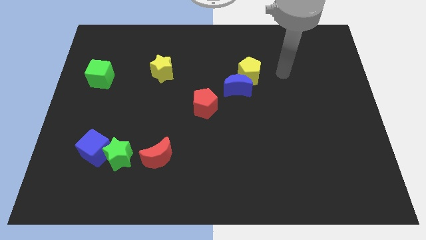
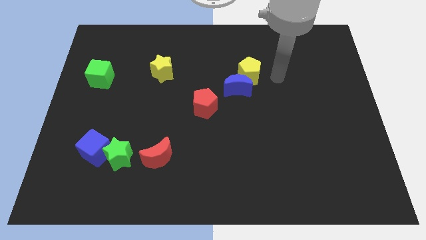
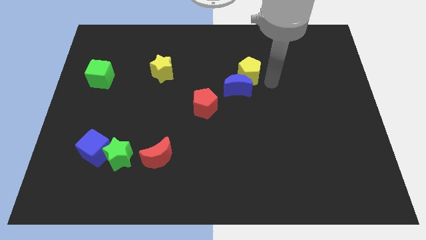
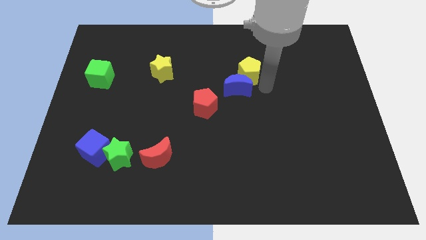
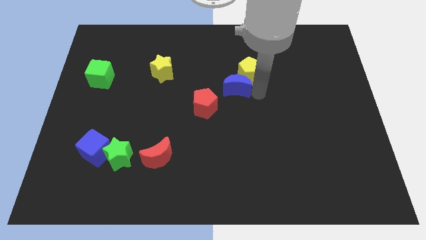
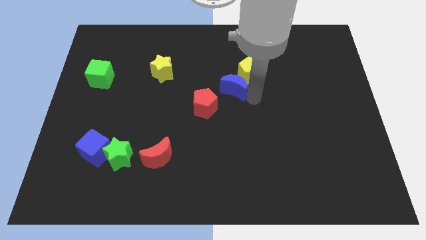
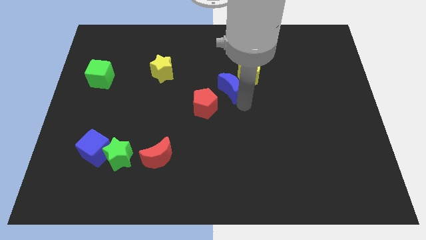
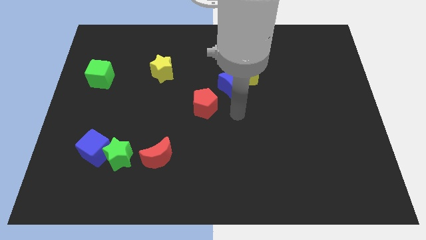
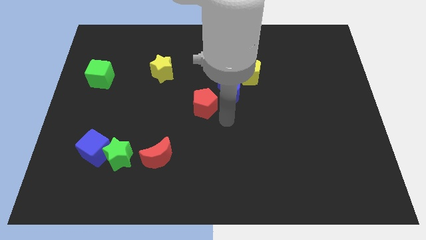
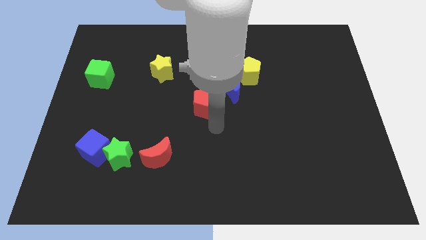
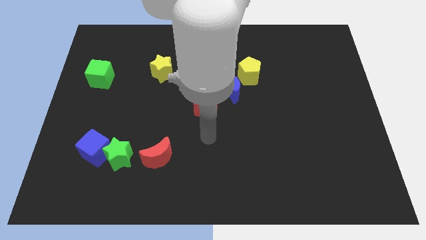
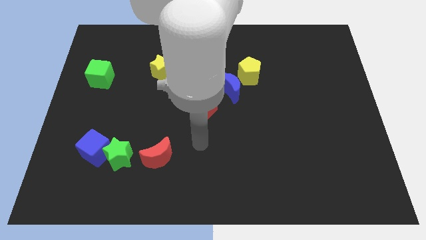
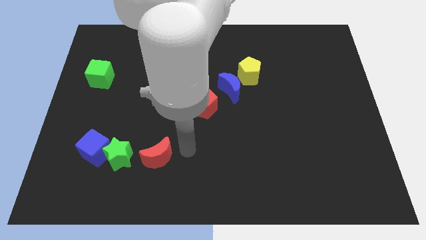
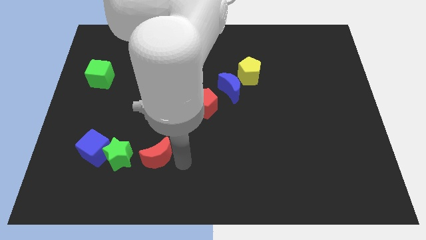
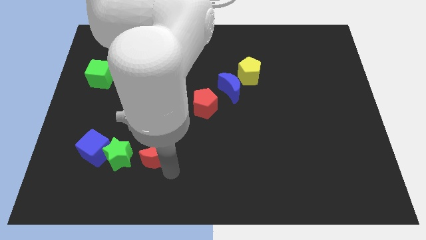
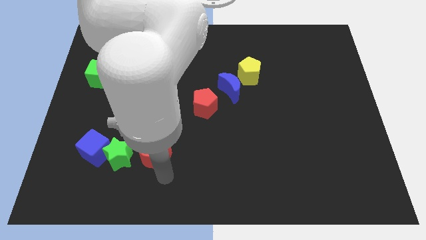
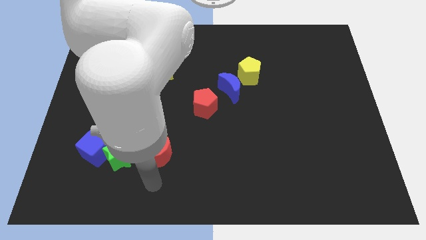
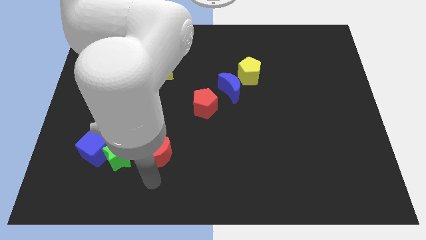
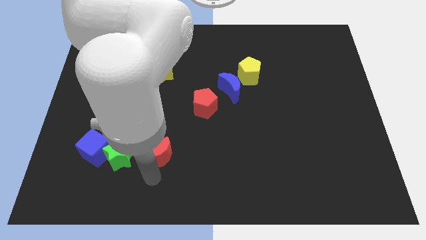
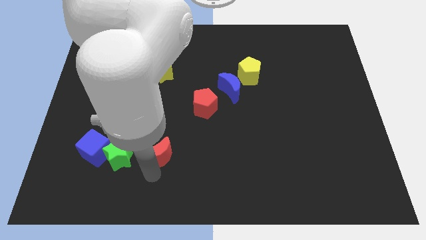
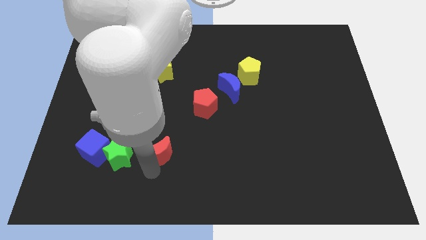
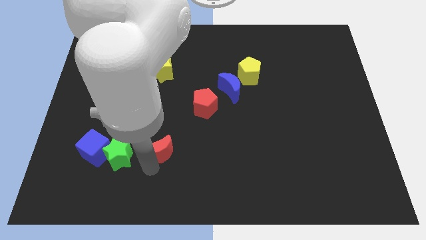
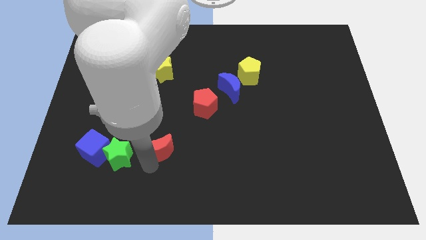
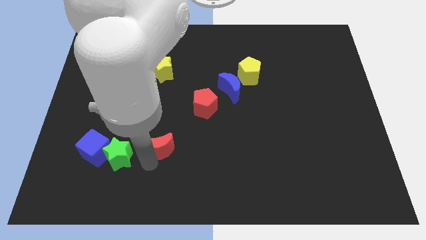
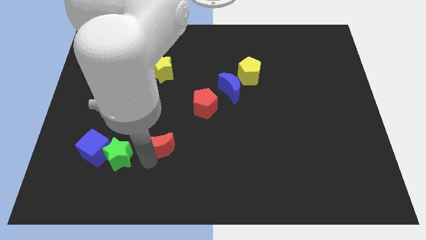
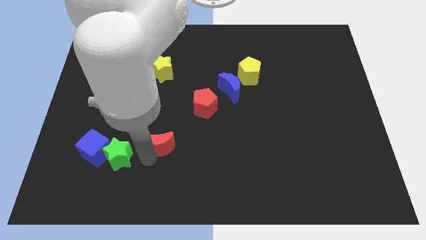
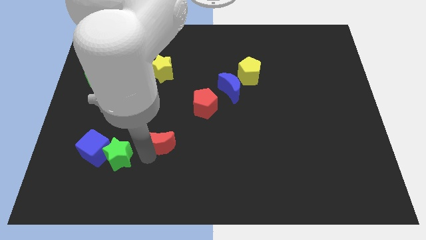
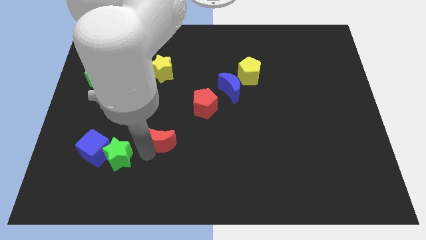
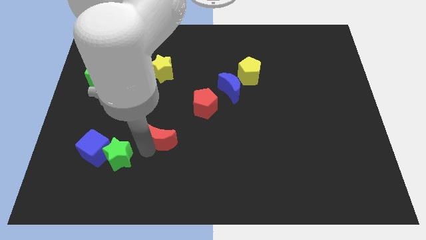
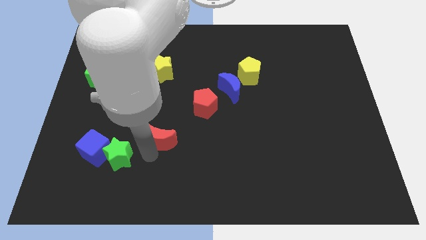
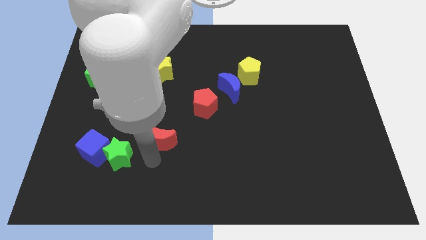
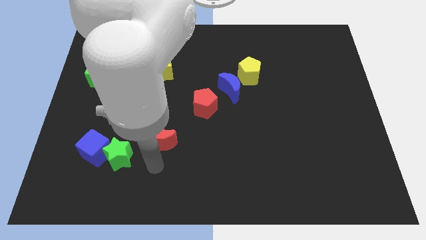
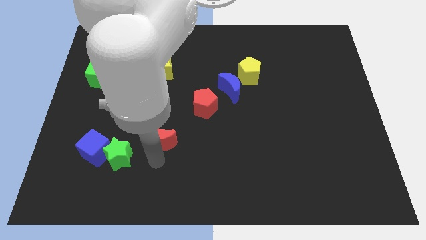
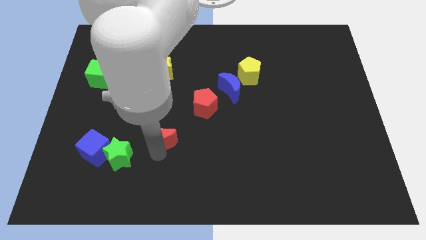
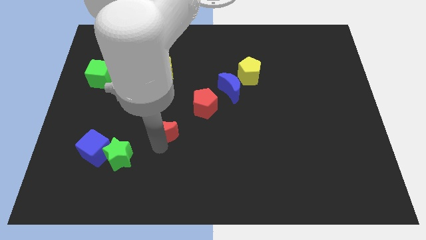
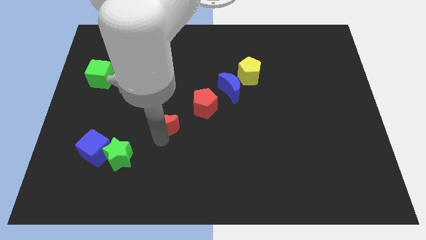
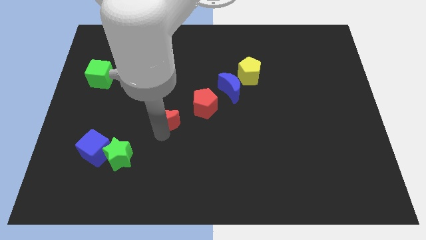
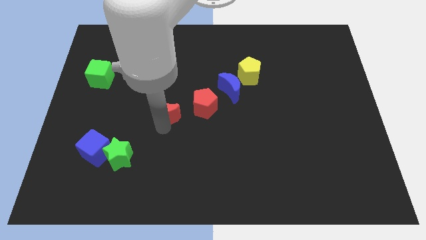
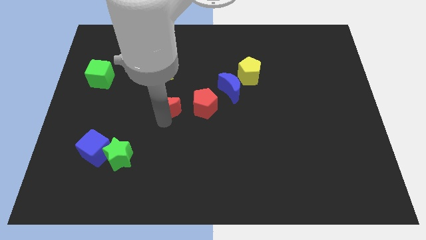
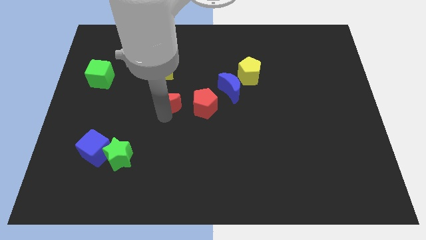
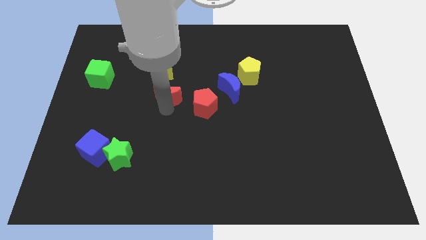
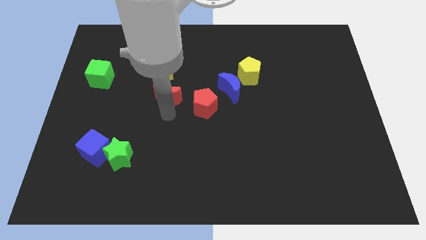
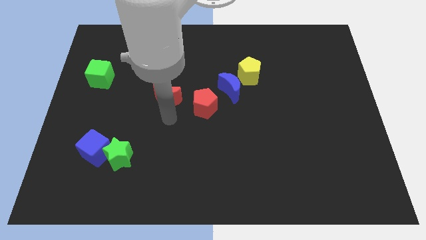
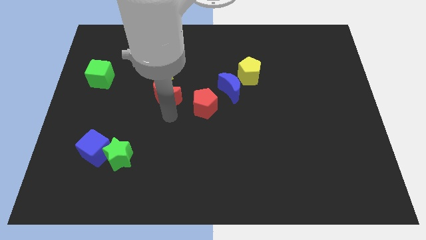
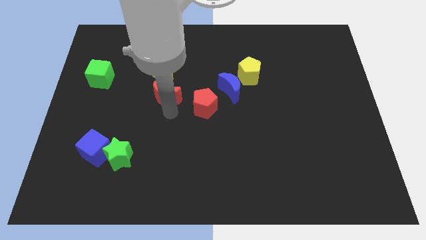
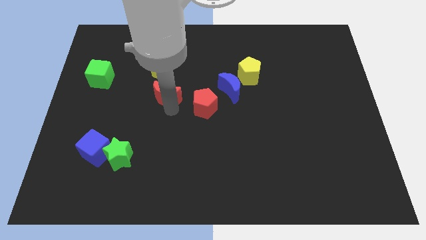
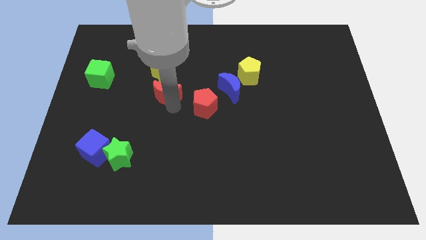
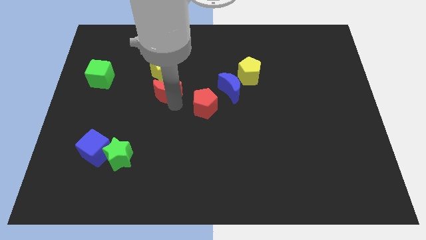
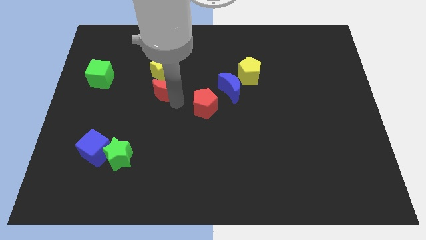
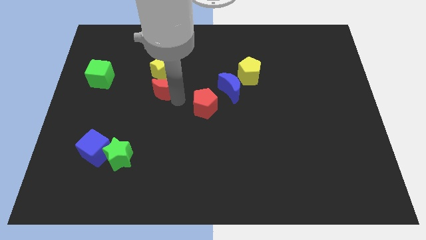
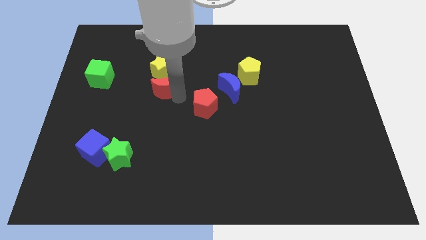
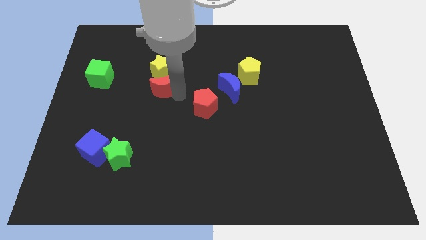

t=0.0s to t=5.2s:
put the red moon towards the yellow star

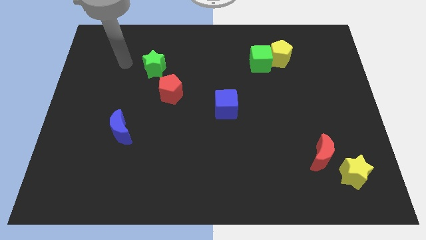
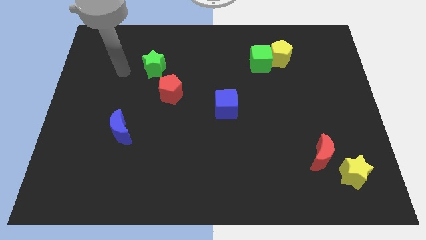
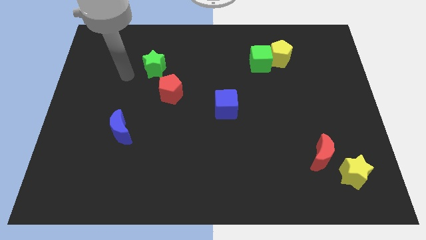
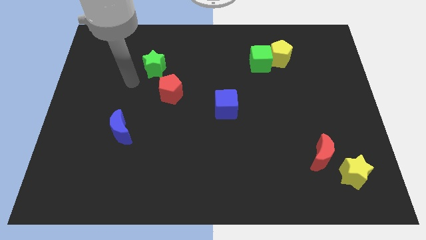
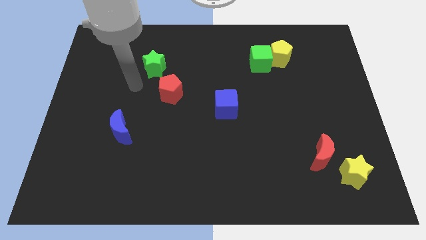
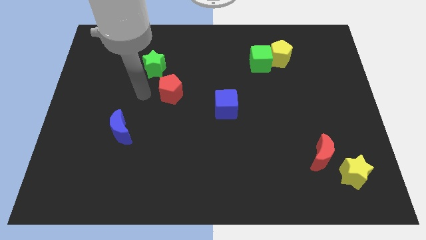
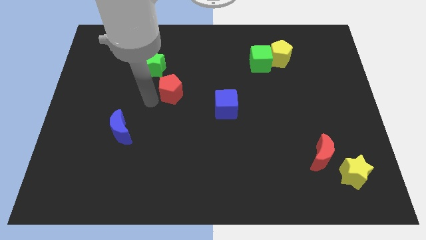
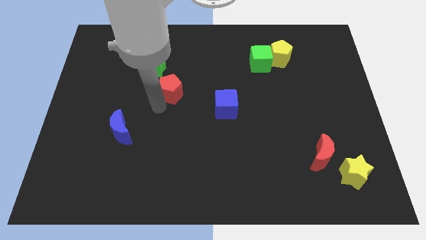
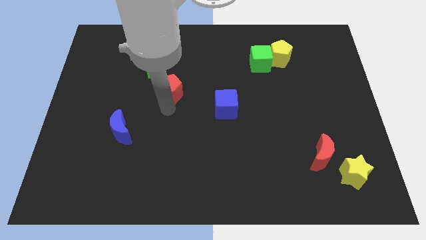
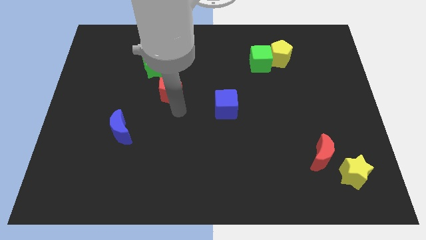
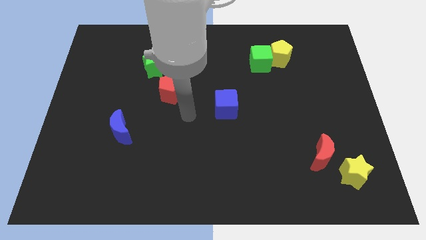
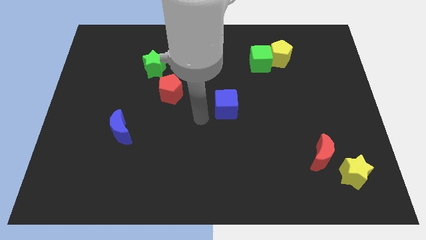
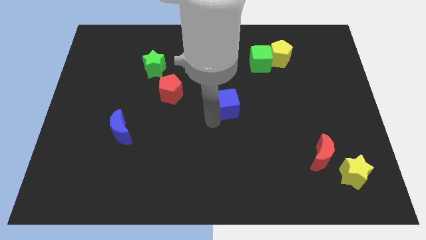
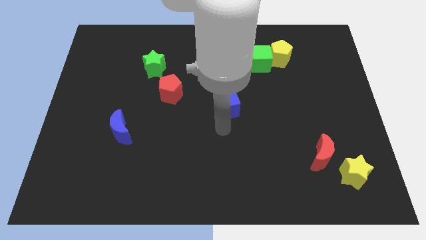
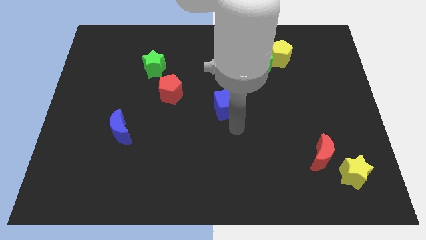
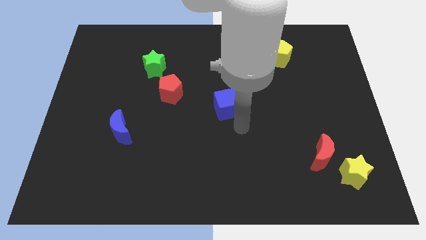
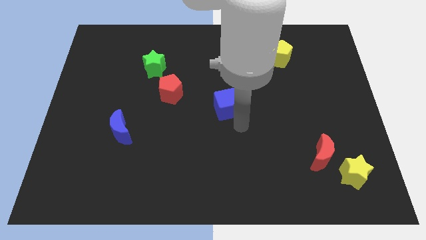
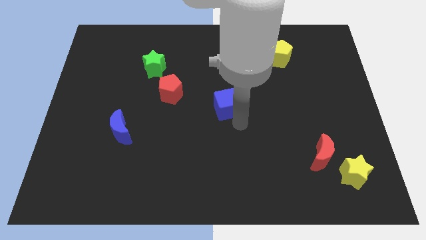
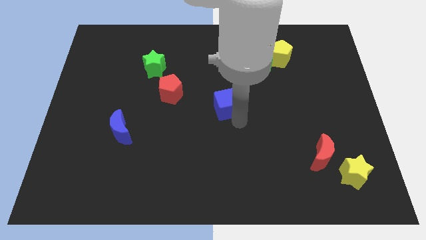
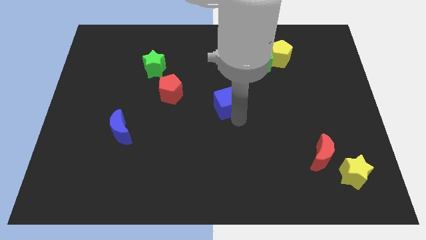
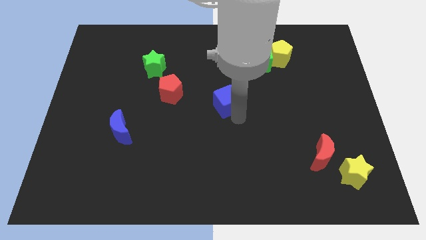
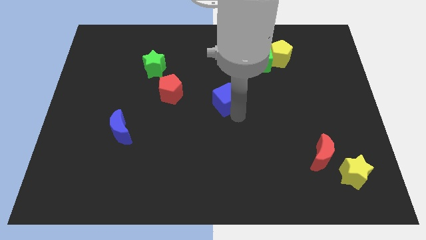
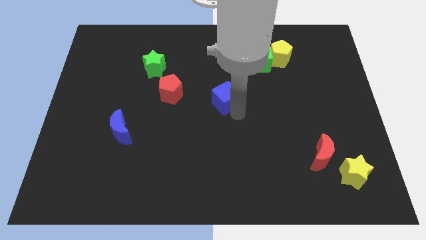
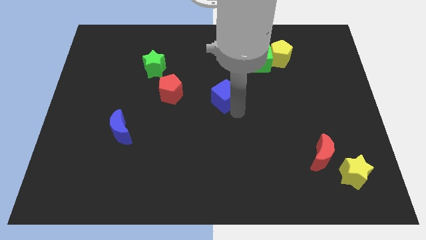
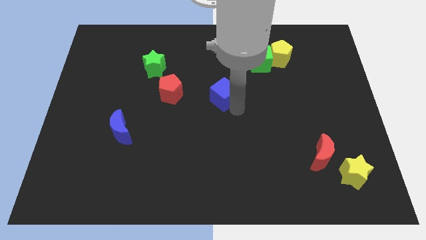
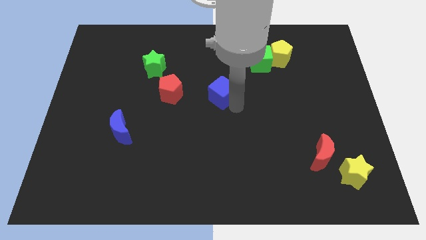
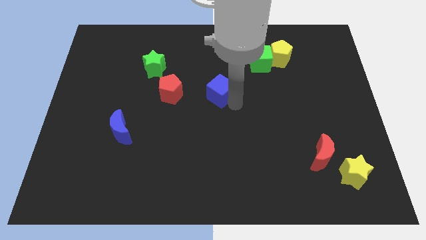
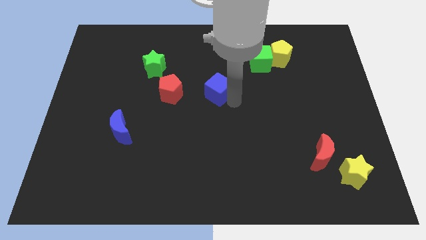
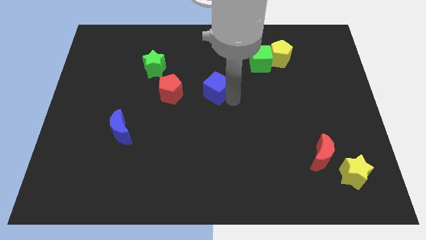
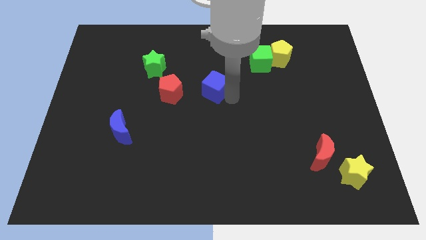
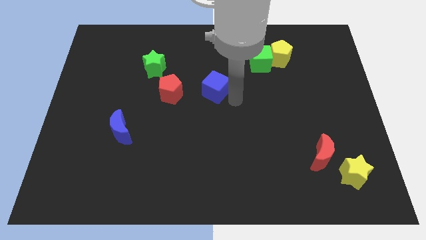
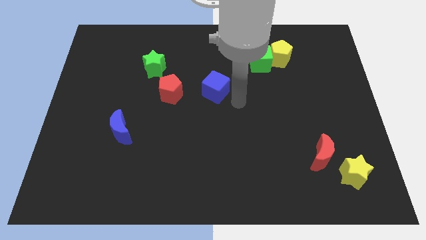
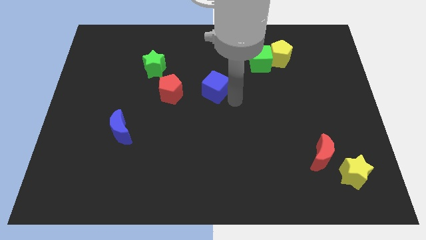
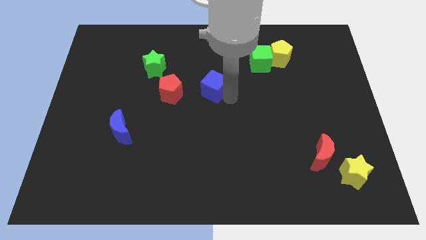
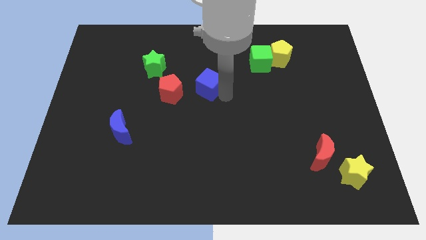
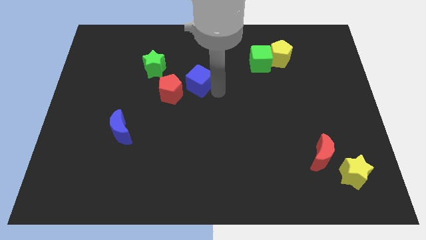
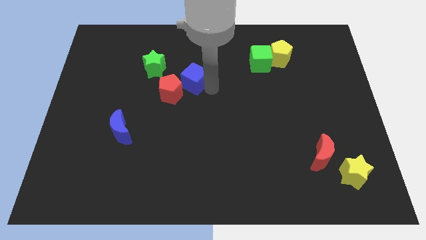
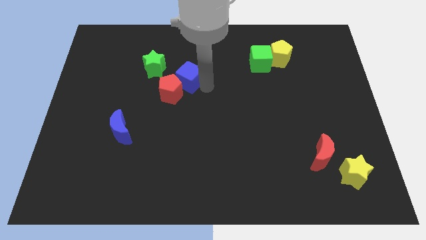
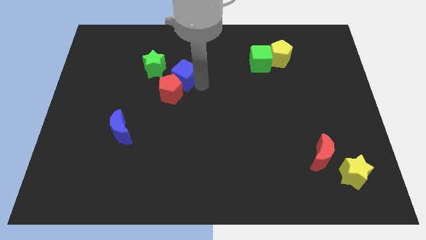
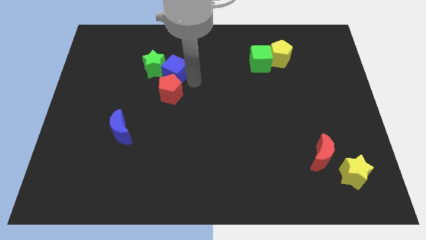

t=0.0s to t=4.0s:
move the blue cube next to the green star
